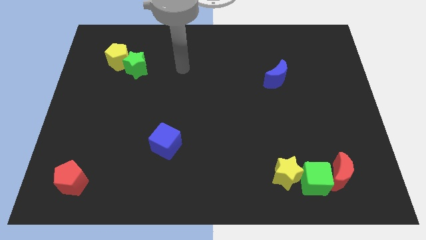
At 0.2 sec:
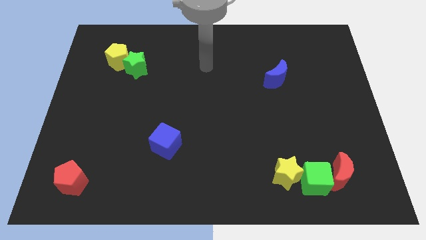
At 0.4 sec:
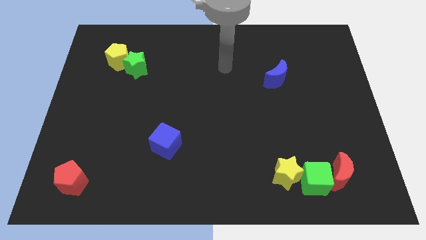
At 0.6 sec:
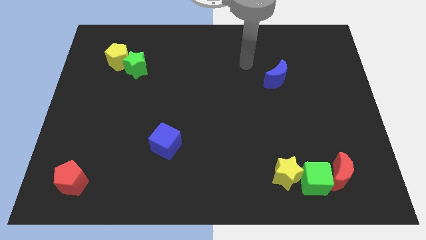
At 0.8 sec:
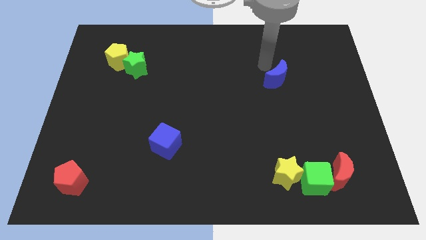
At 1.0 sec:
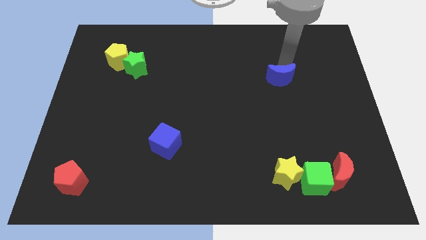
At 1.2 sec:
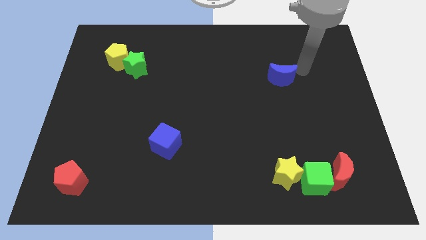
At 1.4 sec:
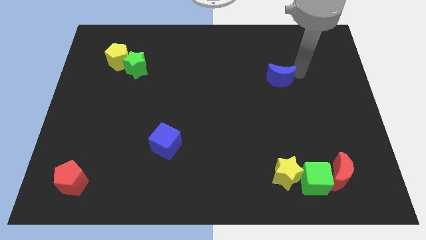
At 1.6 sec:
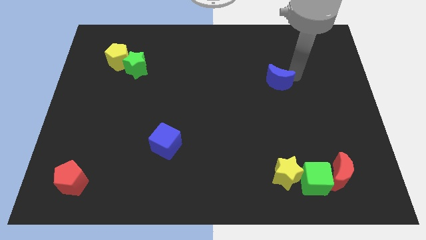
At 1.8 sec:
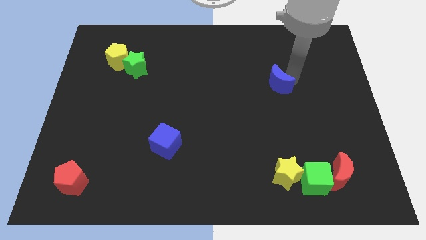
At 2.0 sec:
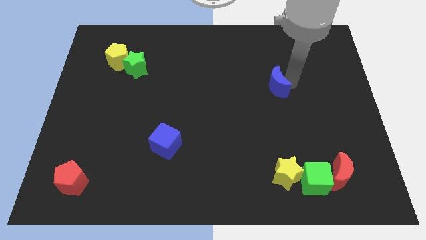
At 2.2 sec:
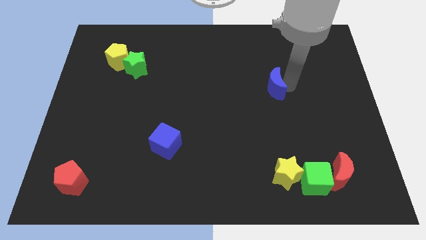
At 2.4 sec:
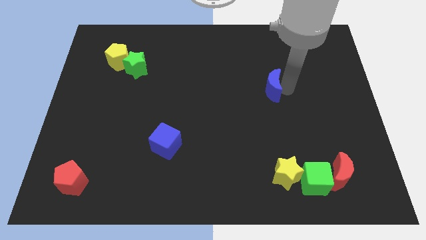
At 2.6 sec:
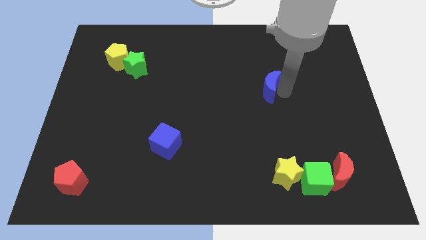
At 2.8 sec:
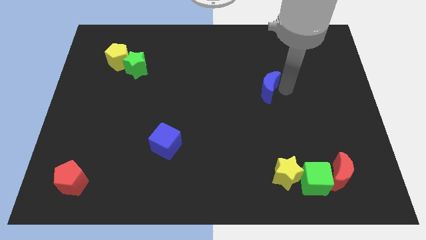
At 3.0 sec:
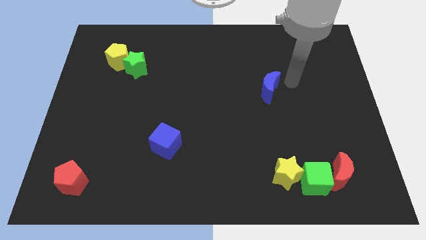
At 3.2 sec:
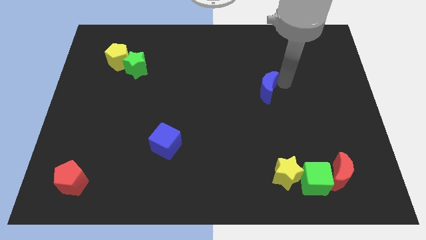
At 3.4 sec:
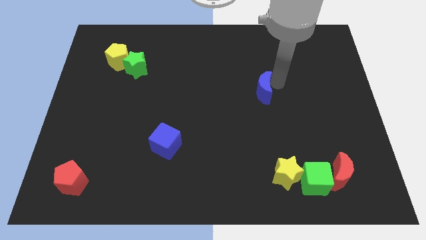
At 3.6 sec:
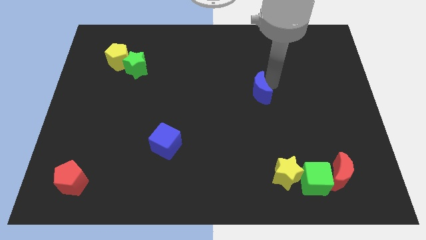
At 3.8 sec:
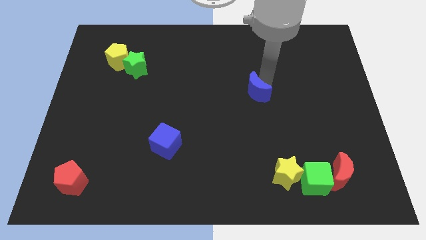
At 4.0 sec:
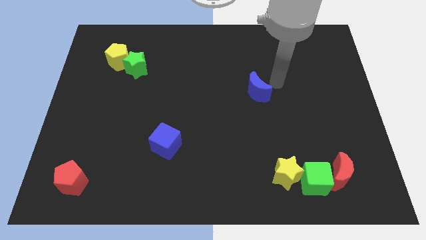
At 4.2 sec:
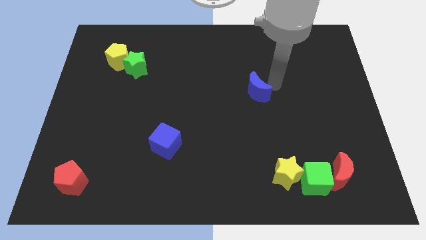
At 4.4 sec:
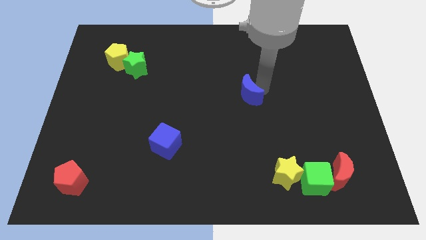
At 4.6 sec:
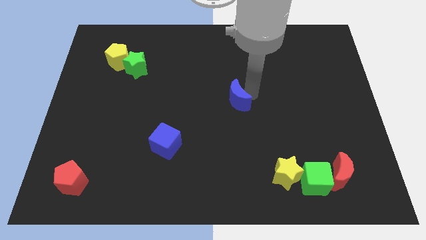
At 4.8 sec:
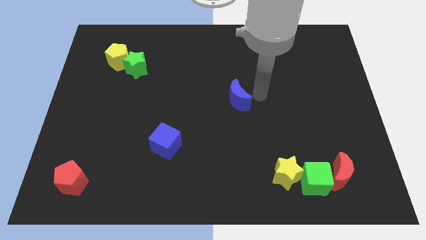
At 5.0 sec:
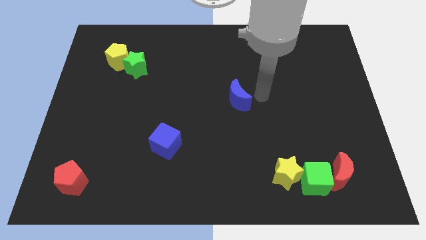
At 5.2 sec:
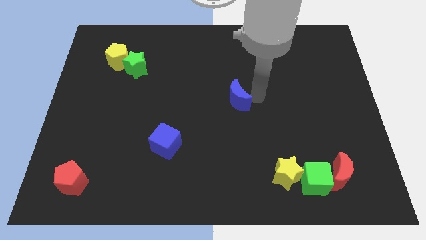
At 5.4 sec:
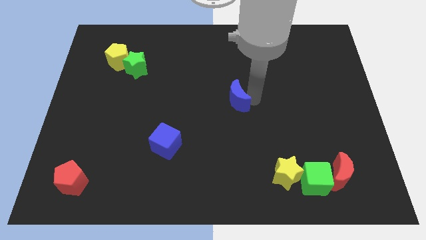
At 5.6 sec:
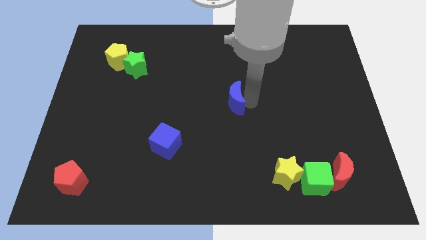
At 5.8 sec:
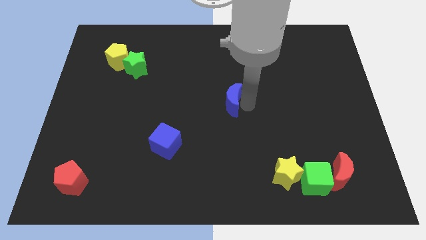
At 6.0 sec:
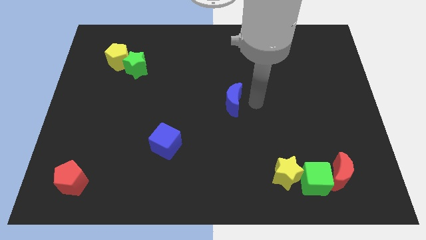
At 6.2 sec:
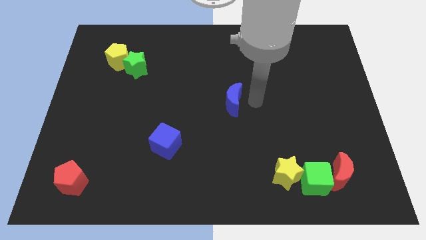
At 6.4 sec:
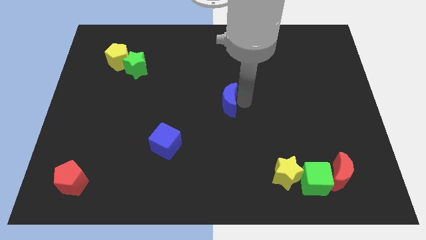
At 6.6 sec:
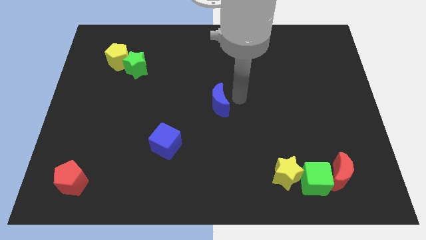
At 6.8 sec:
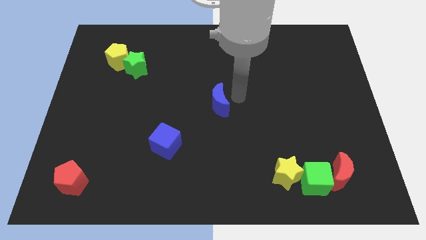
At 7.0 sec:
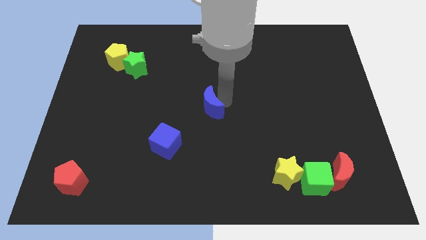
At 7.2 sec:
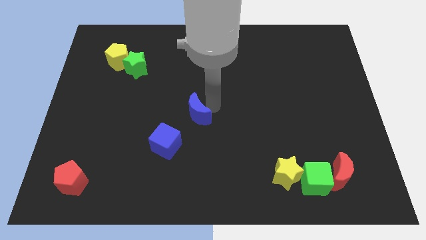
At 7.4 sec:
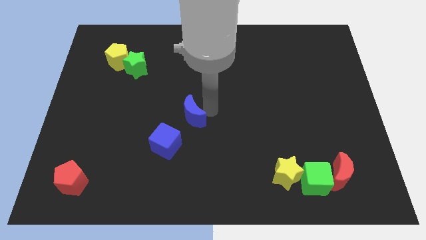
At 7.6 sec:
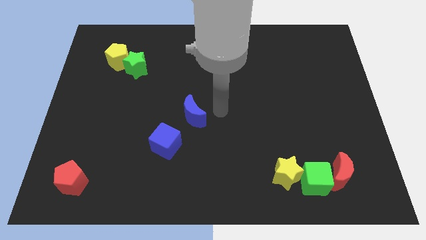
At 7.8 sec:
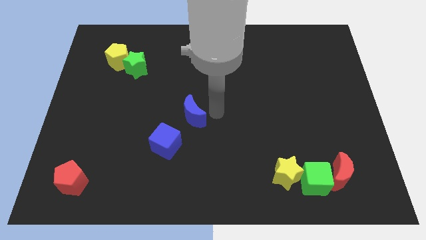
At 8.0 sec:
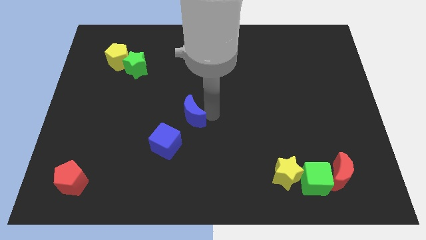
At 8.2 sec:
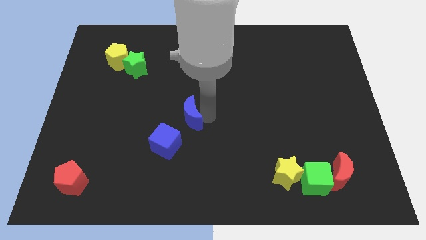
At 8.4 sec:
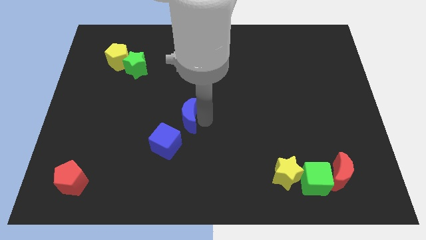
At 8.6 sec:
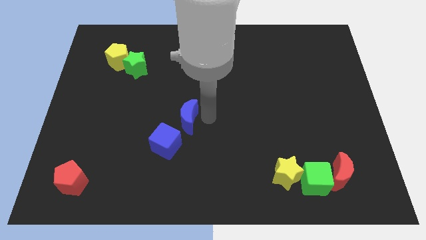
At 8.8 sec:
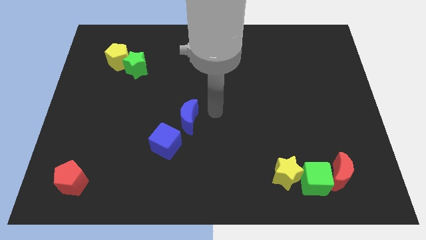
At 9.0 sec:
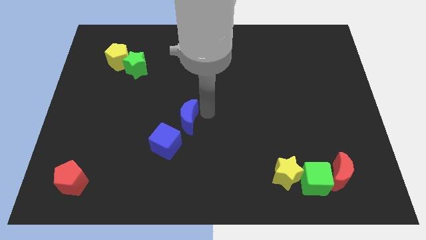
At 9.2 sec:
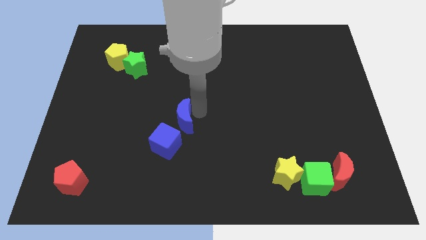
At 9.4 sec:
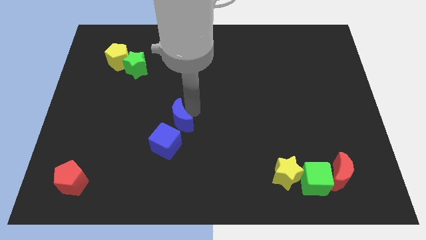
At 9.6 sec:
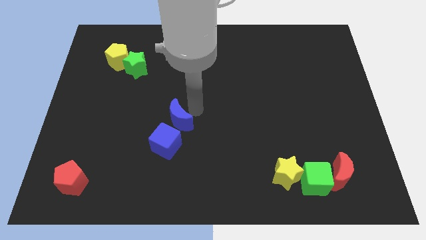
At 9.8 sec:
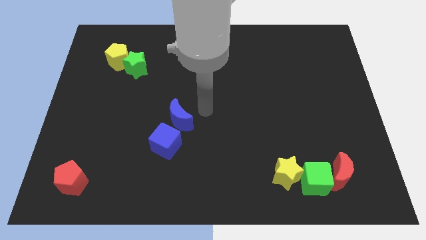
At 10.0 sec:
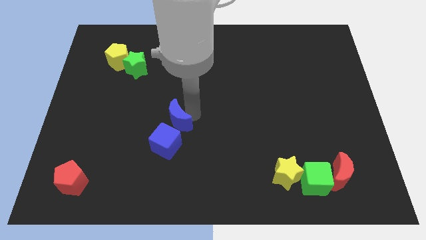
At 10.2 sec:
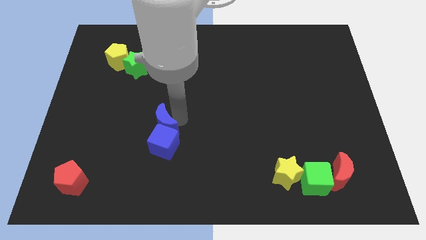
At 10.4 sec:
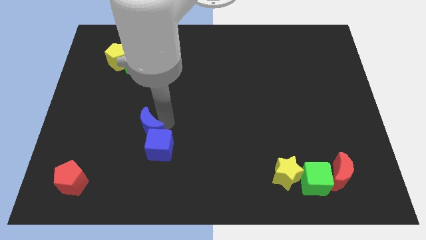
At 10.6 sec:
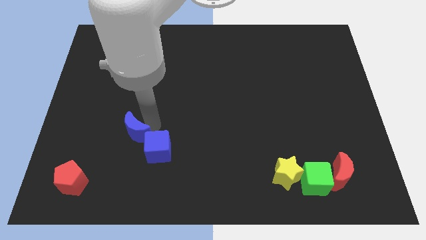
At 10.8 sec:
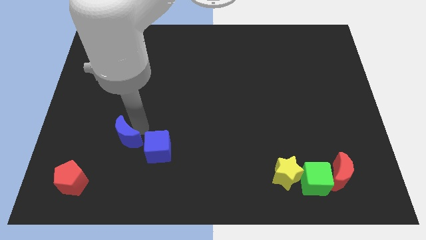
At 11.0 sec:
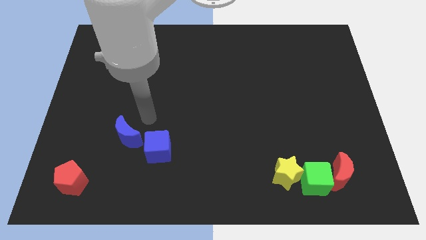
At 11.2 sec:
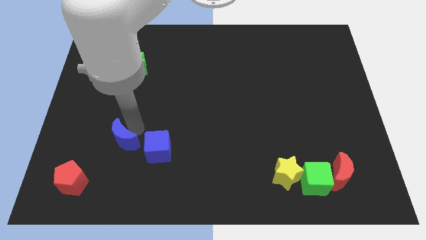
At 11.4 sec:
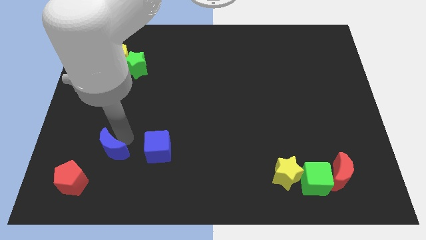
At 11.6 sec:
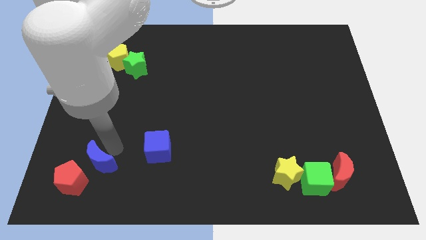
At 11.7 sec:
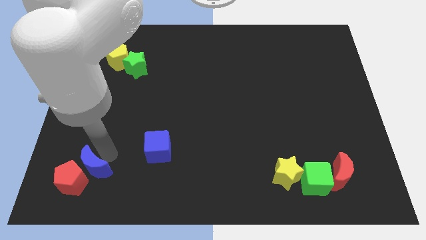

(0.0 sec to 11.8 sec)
slide the blue moon to the red pentagon

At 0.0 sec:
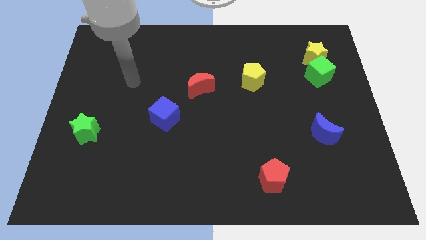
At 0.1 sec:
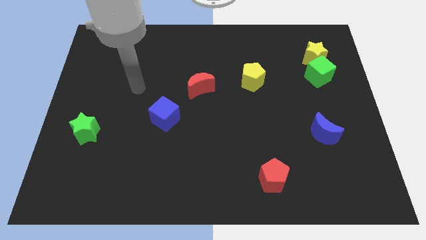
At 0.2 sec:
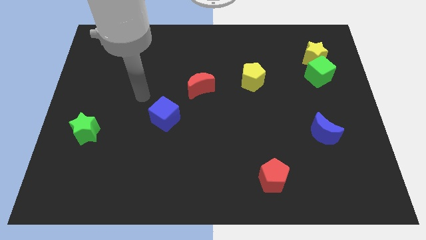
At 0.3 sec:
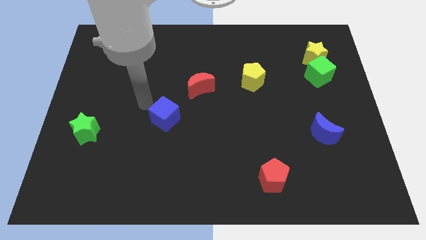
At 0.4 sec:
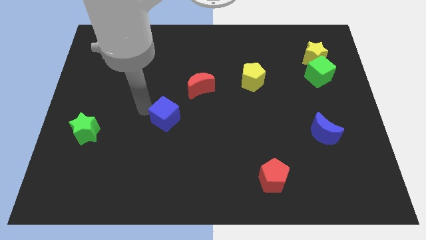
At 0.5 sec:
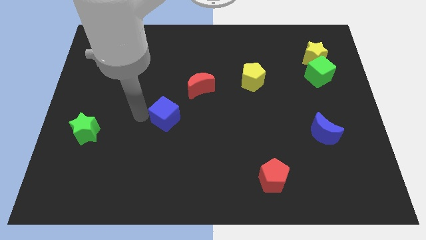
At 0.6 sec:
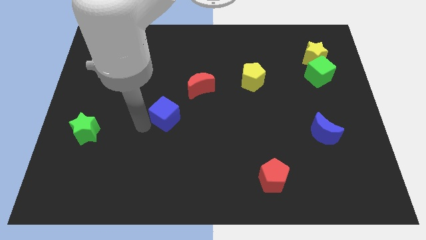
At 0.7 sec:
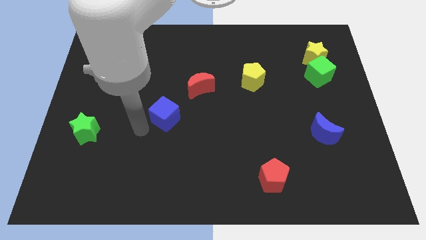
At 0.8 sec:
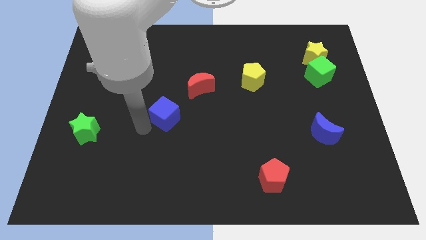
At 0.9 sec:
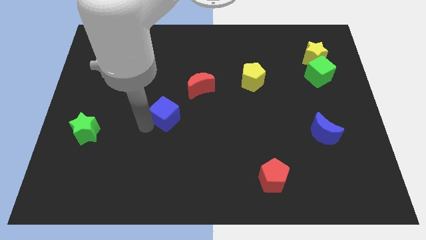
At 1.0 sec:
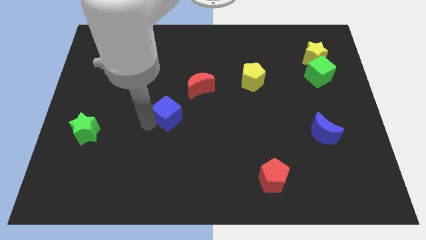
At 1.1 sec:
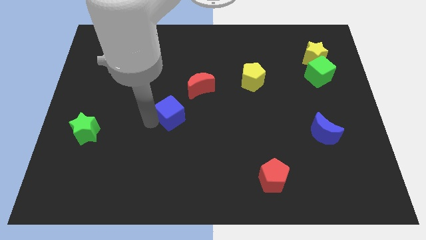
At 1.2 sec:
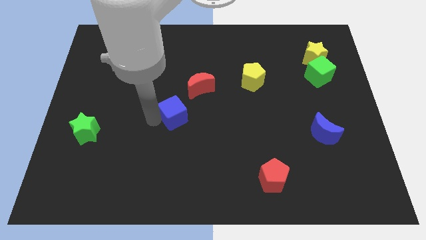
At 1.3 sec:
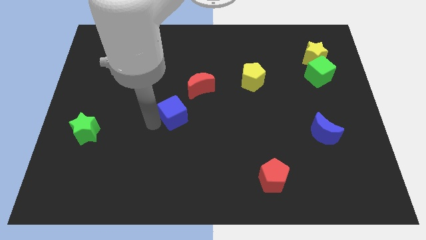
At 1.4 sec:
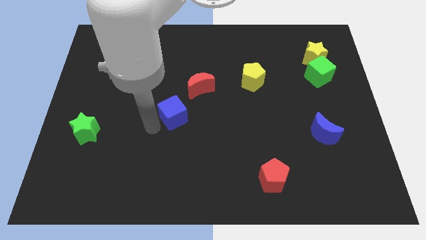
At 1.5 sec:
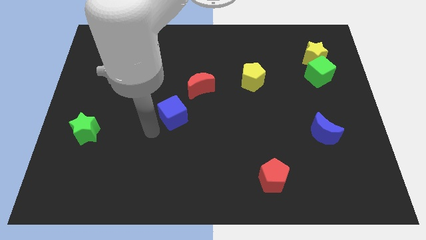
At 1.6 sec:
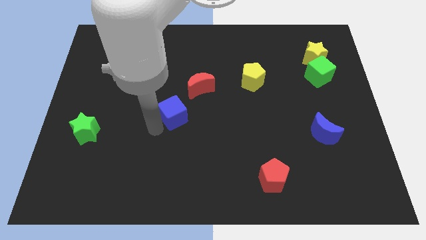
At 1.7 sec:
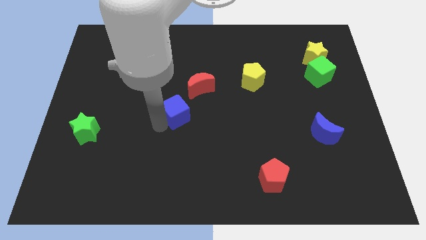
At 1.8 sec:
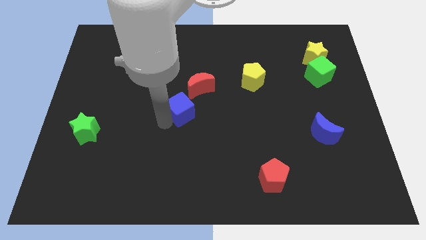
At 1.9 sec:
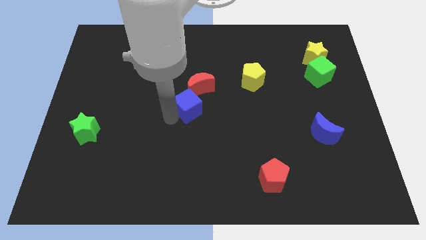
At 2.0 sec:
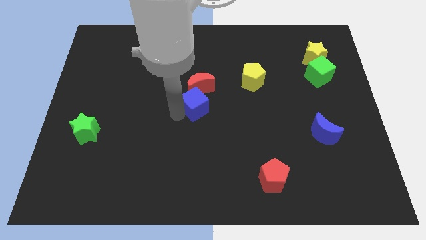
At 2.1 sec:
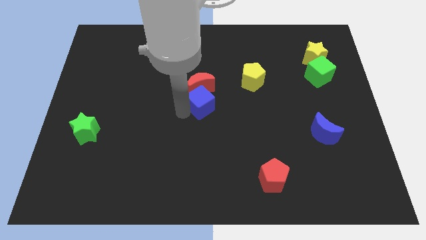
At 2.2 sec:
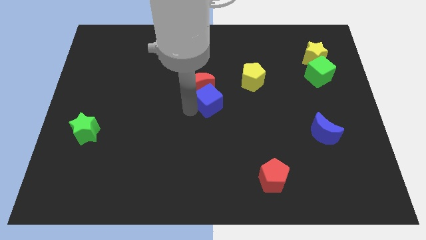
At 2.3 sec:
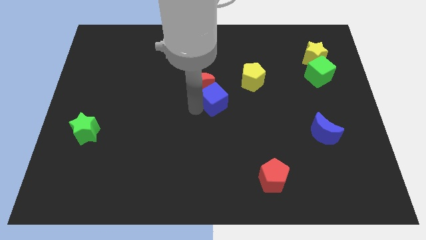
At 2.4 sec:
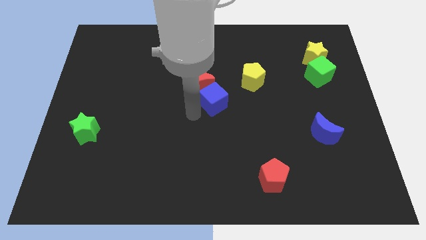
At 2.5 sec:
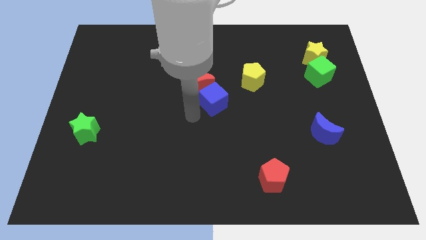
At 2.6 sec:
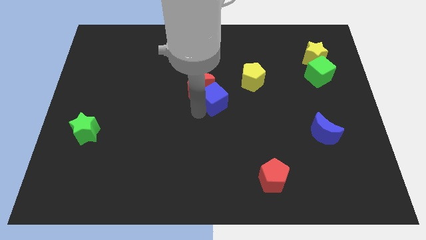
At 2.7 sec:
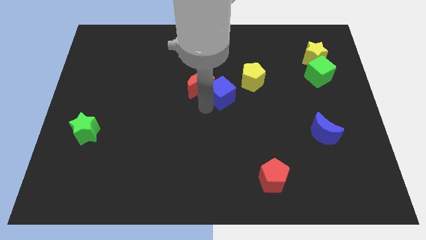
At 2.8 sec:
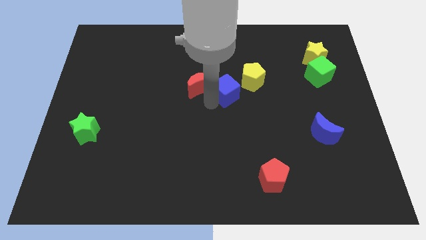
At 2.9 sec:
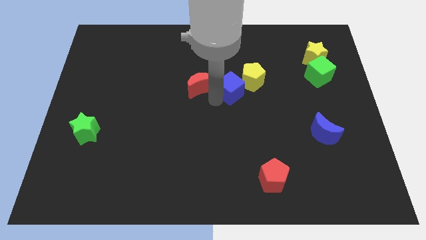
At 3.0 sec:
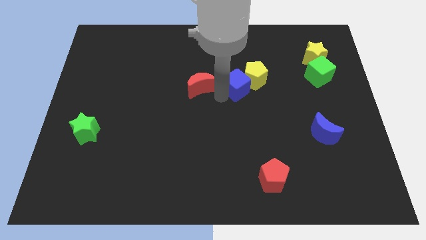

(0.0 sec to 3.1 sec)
slide the blue cube close to the yellow pentagon
